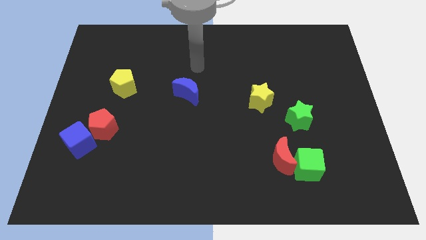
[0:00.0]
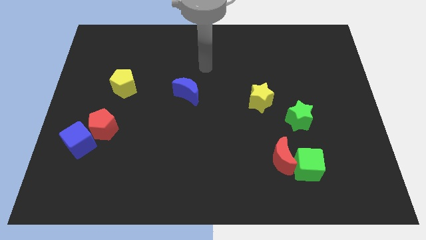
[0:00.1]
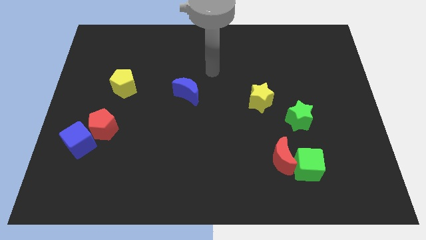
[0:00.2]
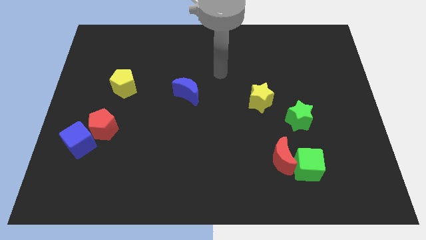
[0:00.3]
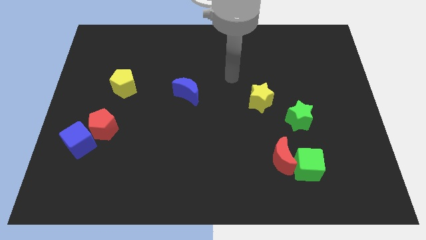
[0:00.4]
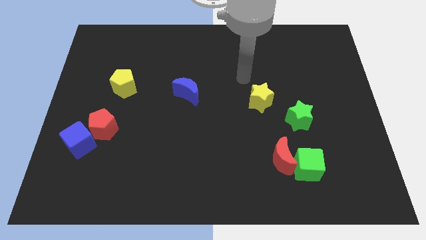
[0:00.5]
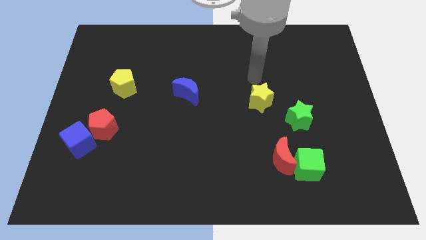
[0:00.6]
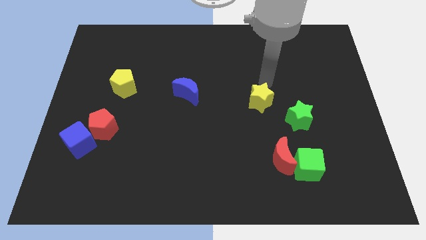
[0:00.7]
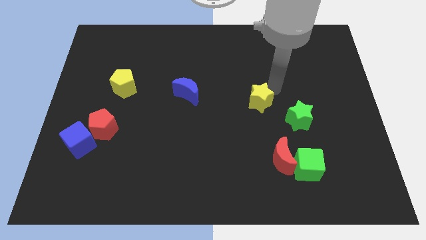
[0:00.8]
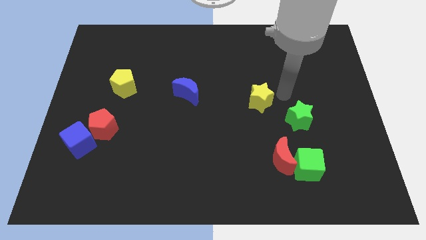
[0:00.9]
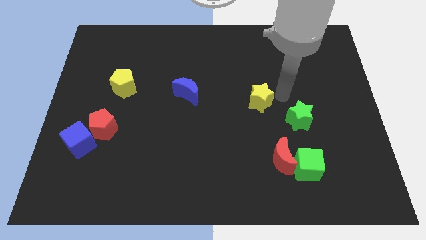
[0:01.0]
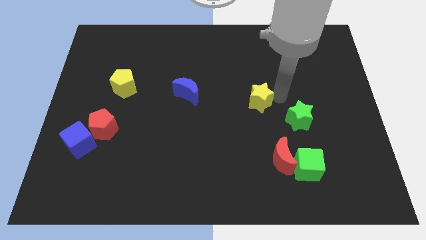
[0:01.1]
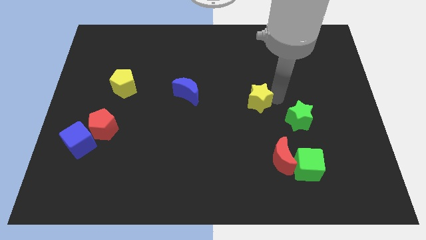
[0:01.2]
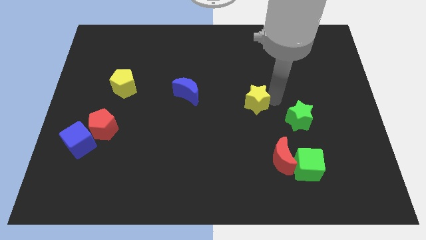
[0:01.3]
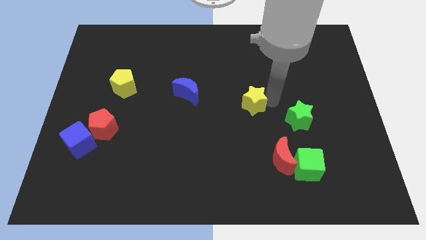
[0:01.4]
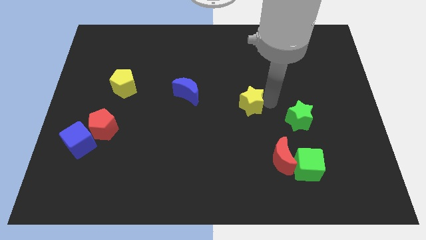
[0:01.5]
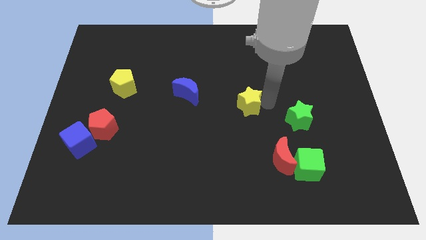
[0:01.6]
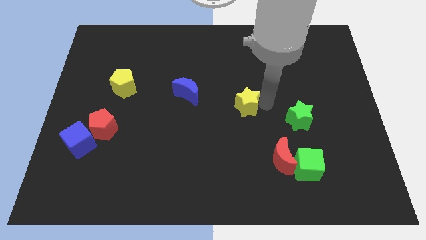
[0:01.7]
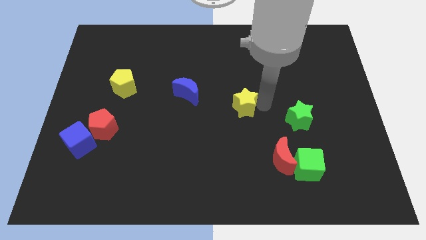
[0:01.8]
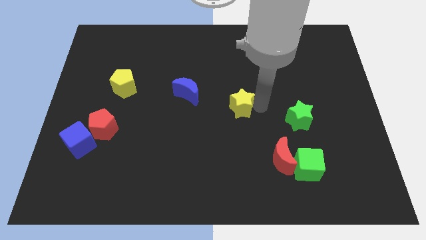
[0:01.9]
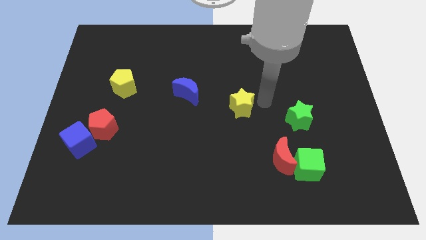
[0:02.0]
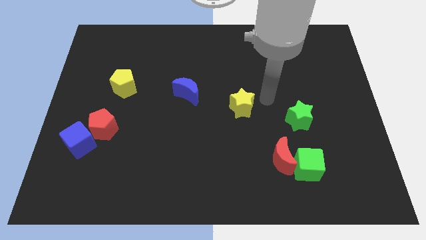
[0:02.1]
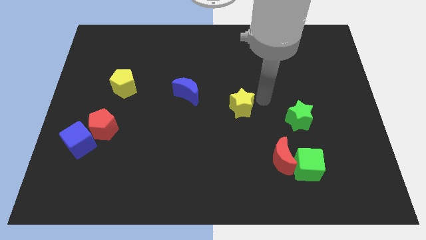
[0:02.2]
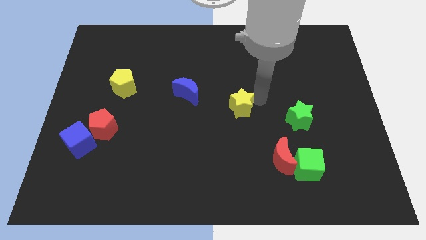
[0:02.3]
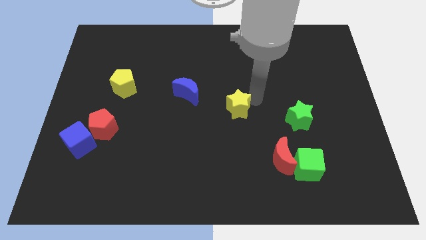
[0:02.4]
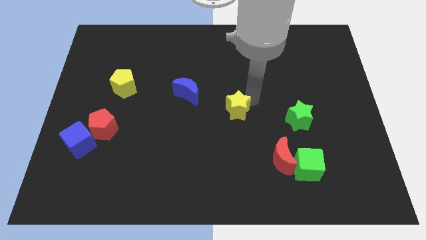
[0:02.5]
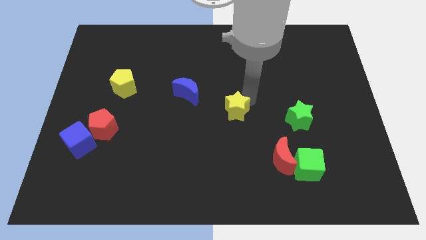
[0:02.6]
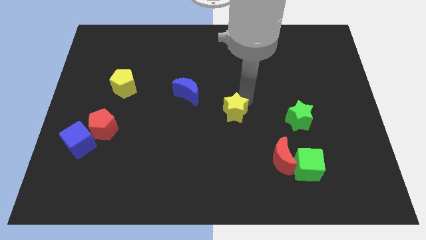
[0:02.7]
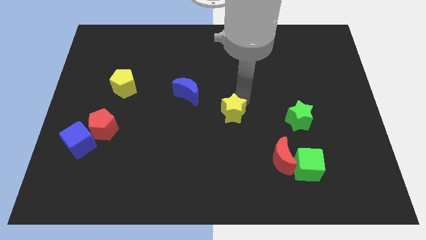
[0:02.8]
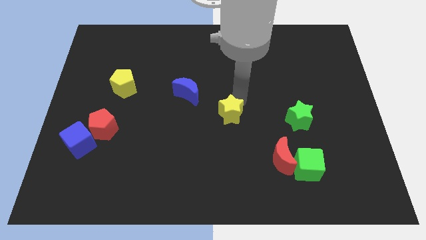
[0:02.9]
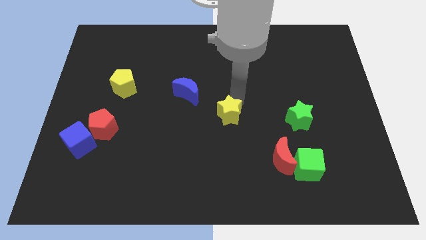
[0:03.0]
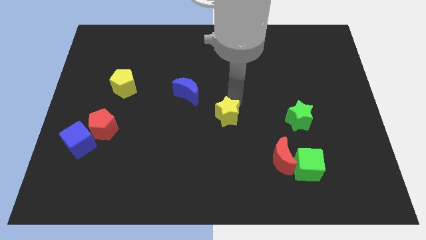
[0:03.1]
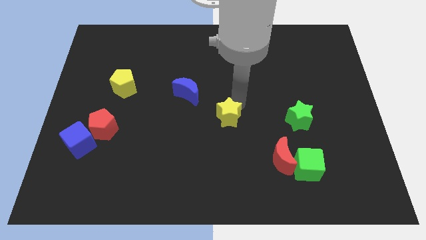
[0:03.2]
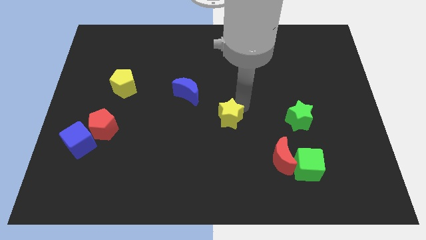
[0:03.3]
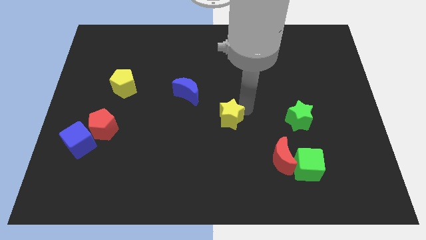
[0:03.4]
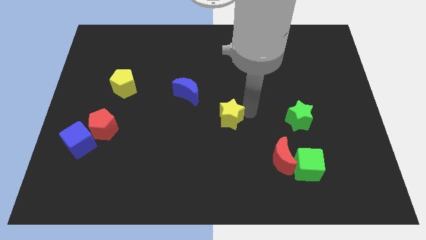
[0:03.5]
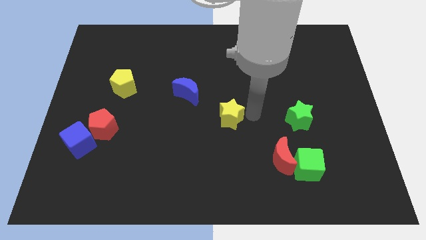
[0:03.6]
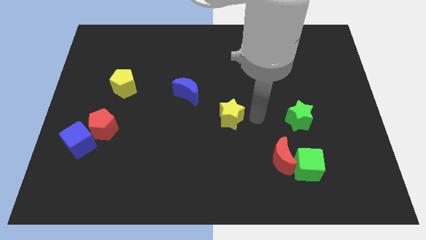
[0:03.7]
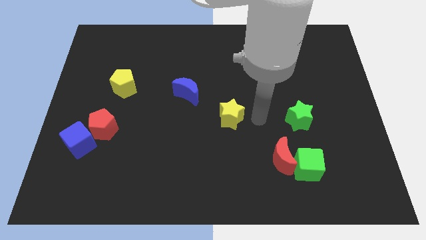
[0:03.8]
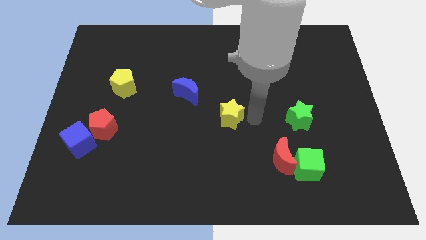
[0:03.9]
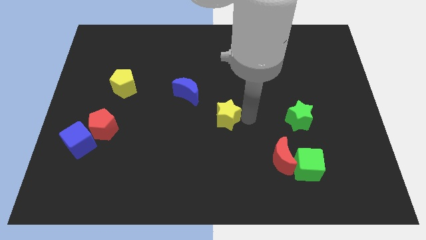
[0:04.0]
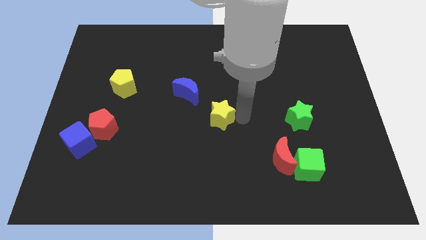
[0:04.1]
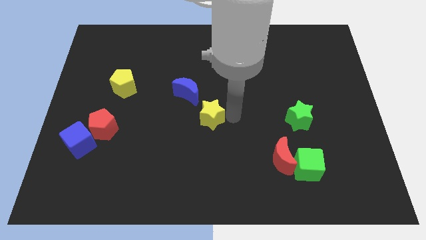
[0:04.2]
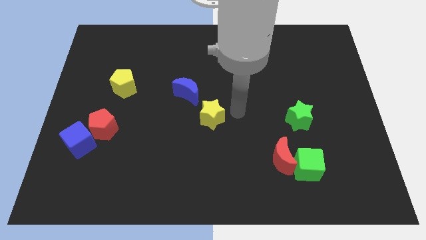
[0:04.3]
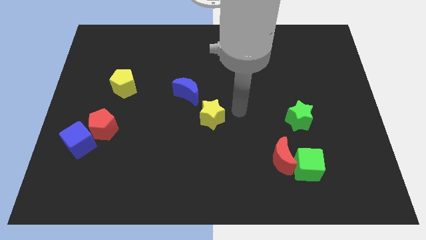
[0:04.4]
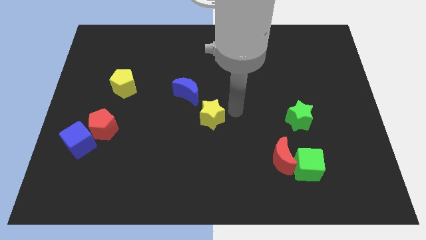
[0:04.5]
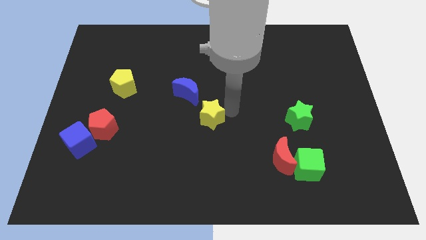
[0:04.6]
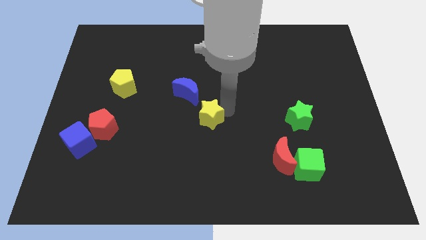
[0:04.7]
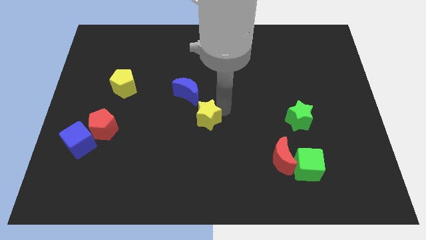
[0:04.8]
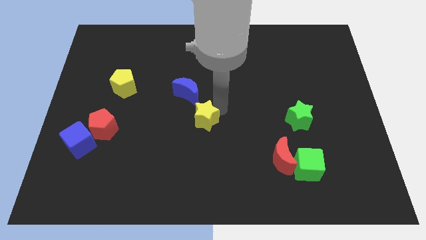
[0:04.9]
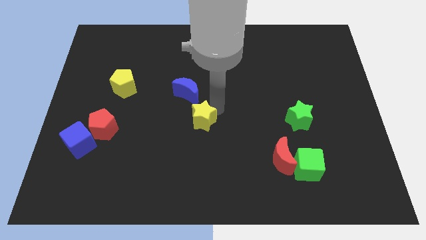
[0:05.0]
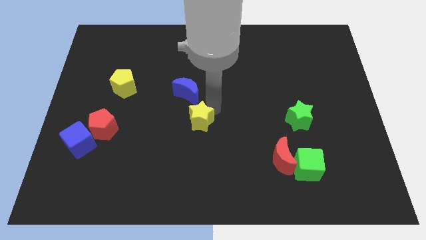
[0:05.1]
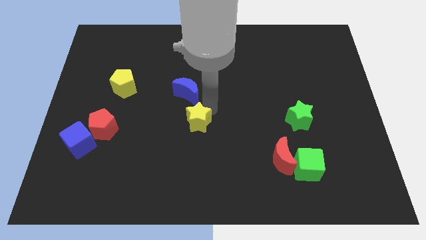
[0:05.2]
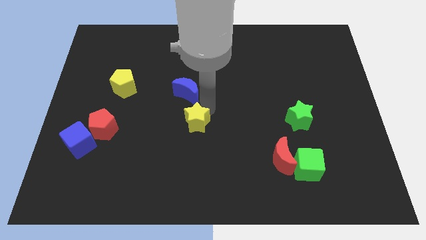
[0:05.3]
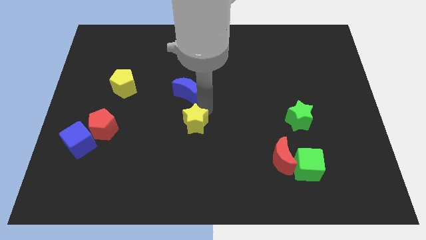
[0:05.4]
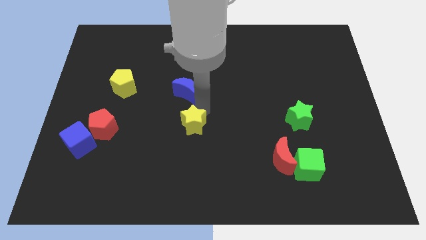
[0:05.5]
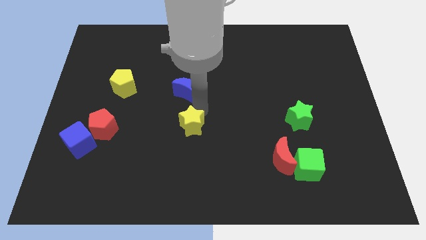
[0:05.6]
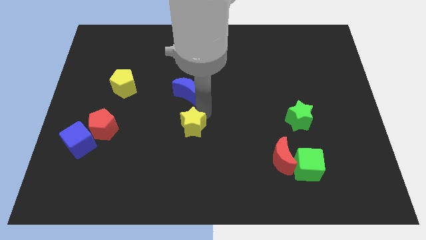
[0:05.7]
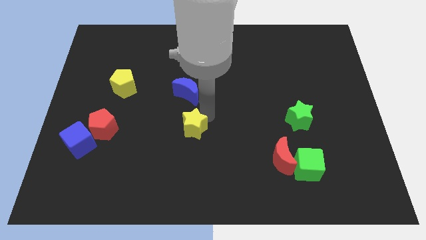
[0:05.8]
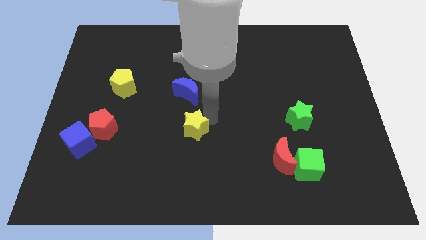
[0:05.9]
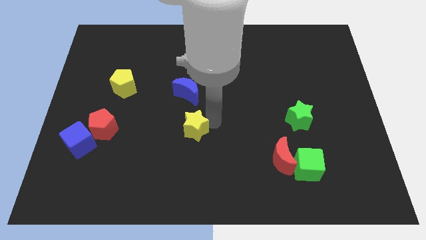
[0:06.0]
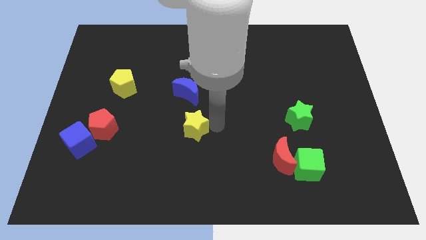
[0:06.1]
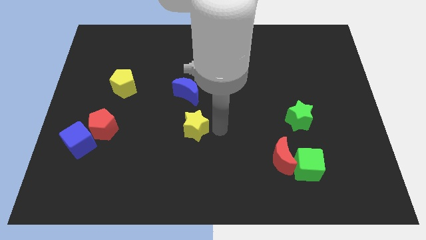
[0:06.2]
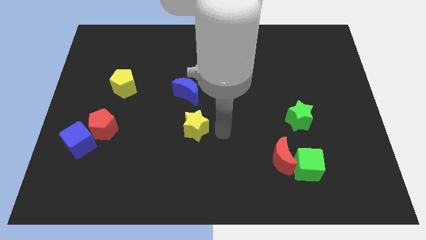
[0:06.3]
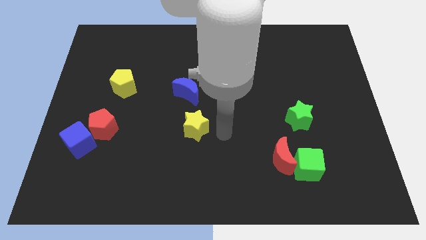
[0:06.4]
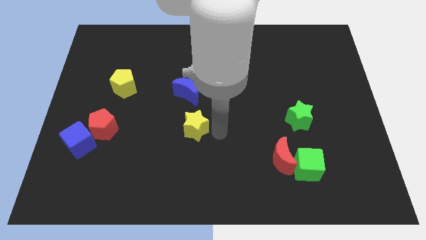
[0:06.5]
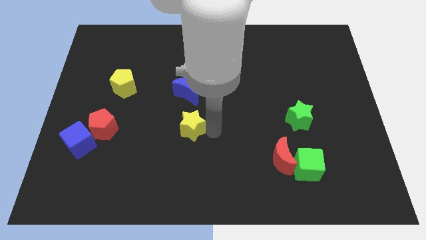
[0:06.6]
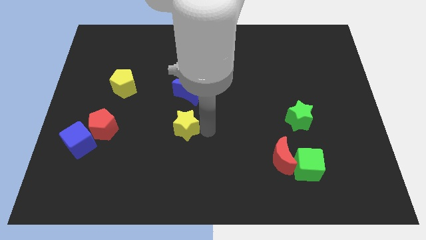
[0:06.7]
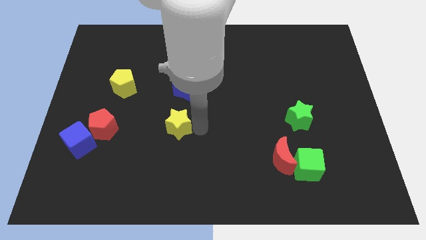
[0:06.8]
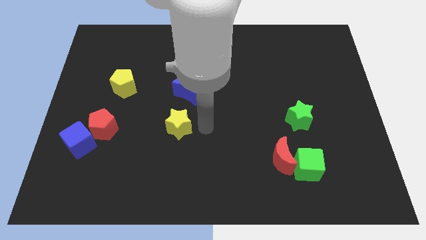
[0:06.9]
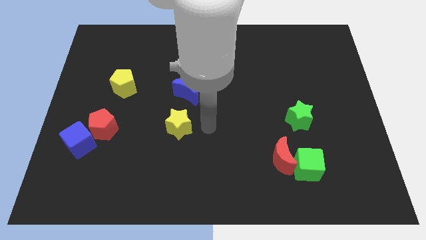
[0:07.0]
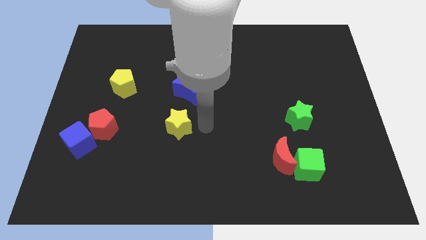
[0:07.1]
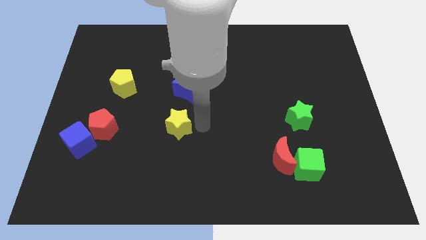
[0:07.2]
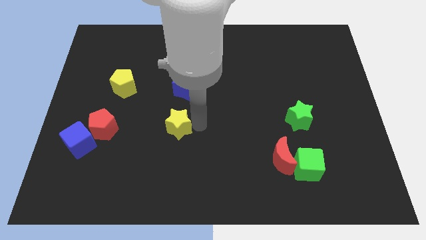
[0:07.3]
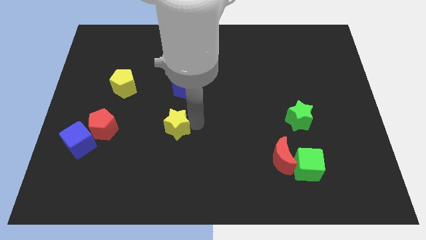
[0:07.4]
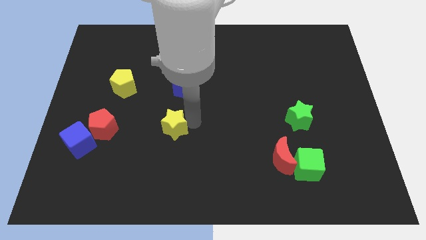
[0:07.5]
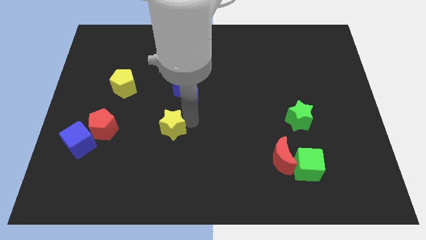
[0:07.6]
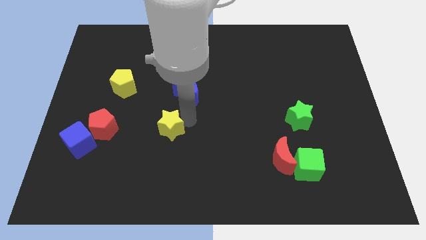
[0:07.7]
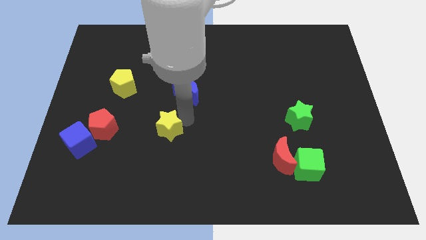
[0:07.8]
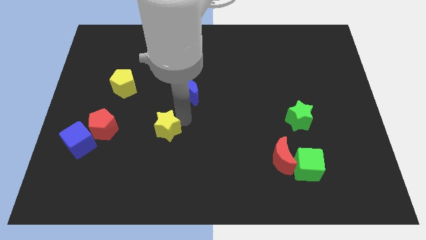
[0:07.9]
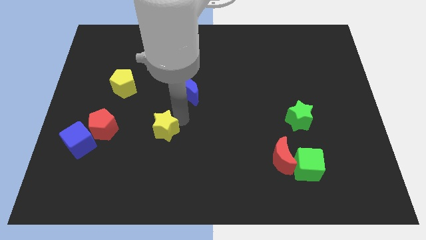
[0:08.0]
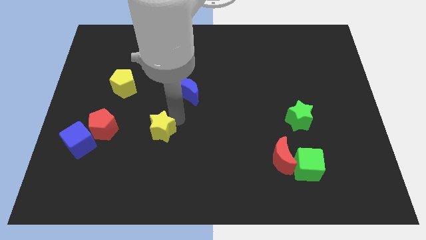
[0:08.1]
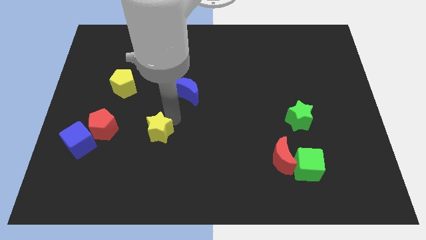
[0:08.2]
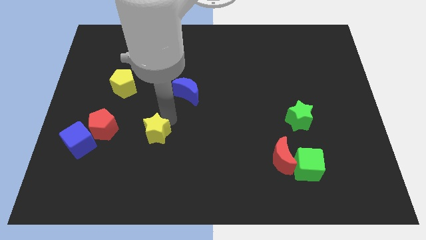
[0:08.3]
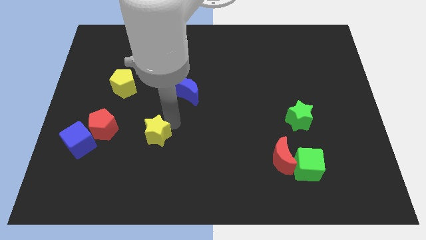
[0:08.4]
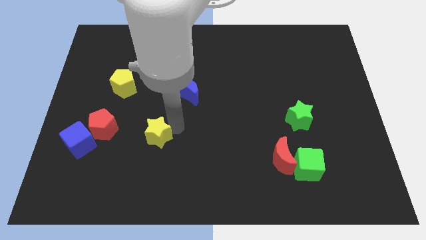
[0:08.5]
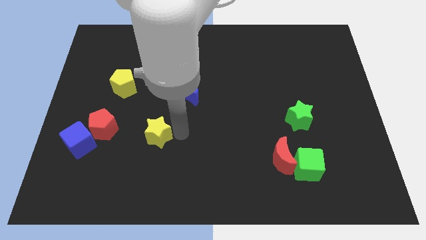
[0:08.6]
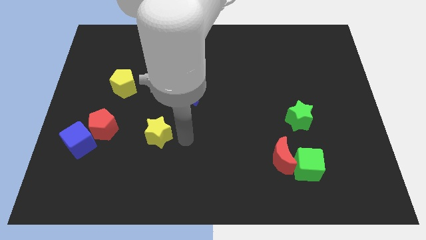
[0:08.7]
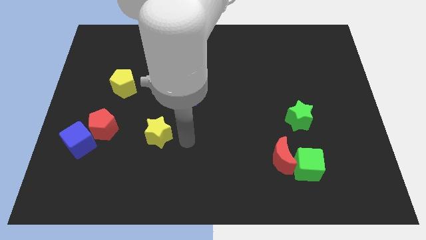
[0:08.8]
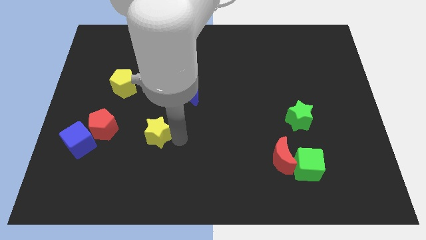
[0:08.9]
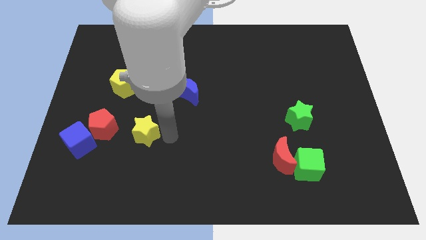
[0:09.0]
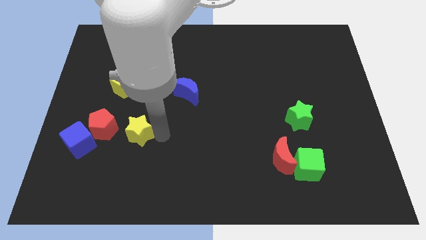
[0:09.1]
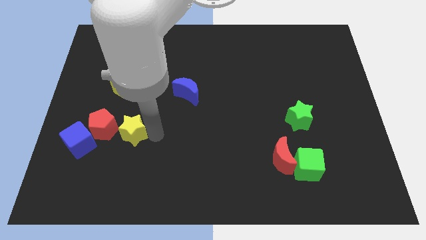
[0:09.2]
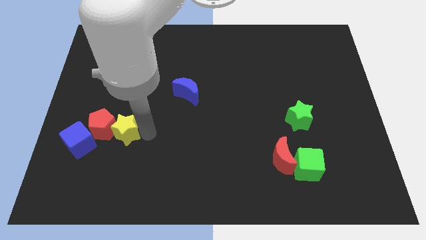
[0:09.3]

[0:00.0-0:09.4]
push the yellow star next to the red pentagon
